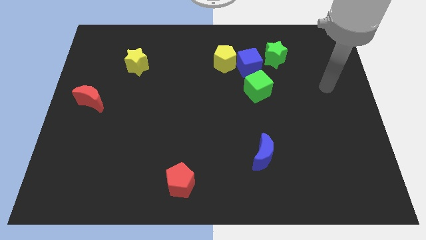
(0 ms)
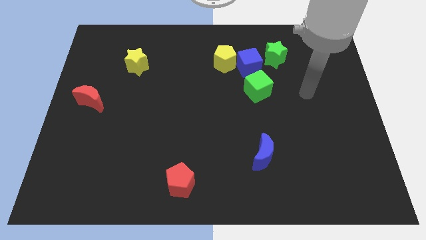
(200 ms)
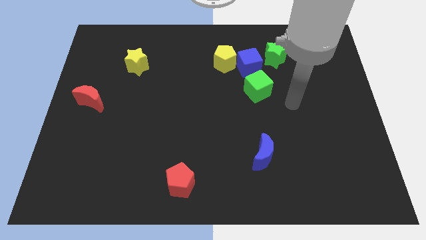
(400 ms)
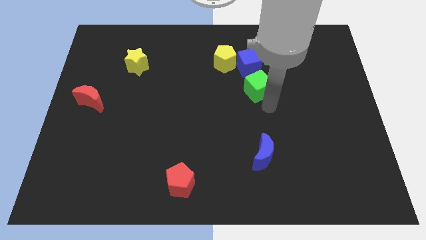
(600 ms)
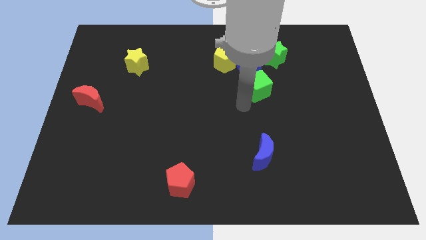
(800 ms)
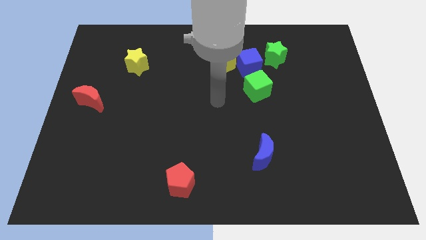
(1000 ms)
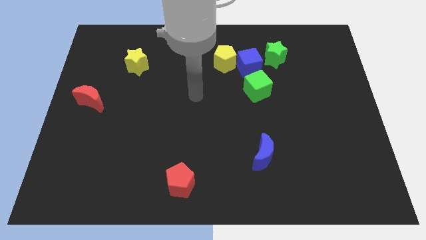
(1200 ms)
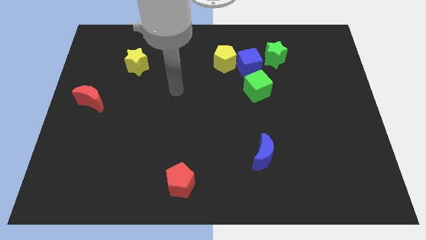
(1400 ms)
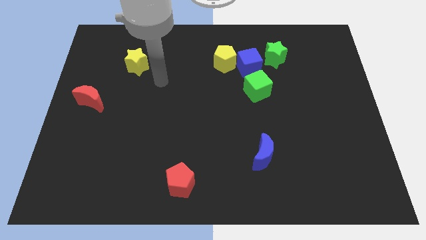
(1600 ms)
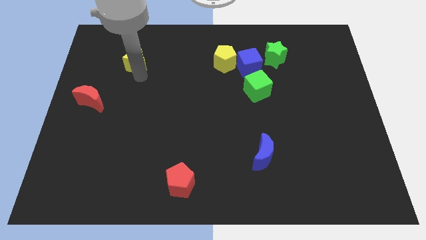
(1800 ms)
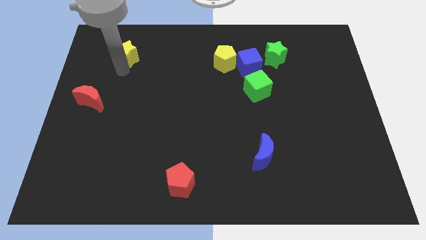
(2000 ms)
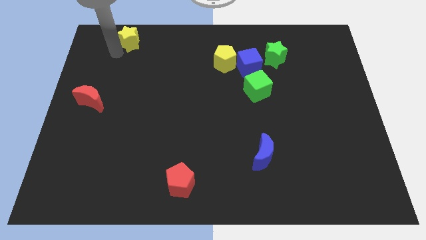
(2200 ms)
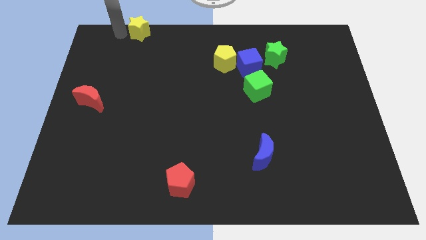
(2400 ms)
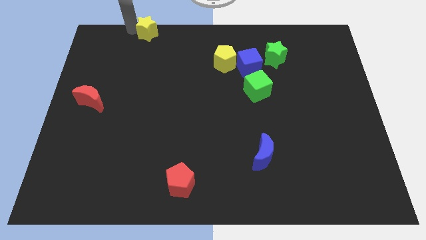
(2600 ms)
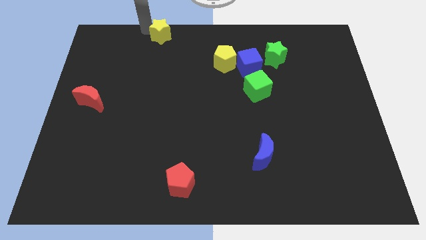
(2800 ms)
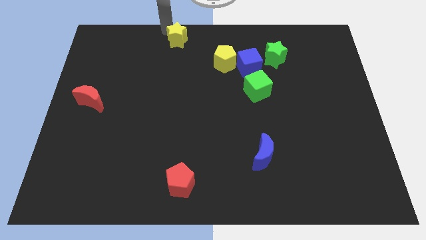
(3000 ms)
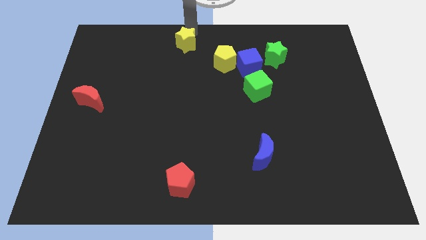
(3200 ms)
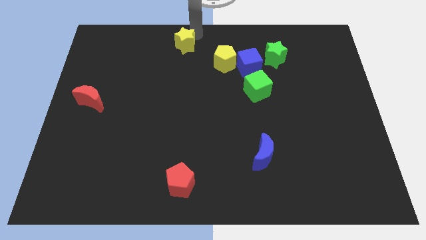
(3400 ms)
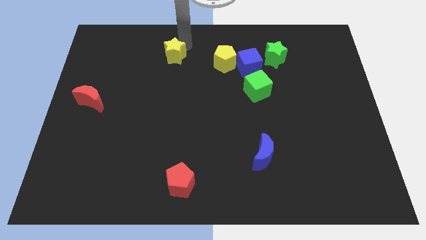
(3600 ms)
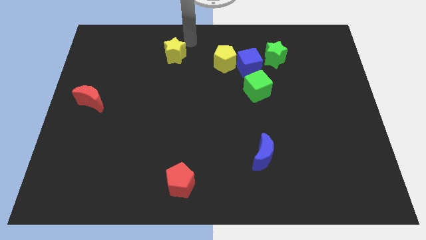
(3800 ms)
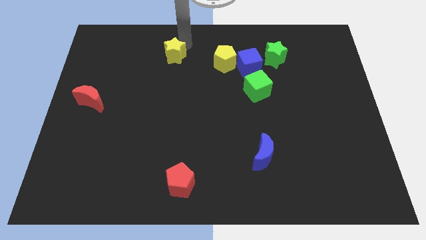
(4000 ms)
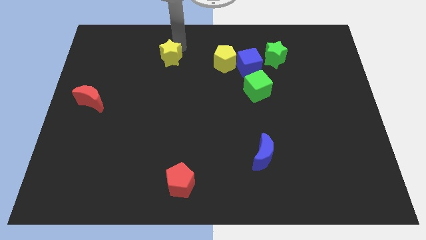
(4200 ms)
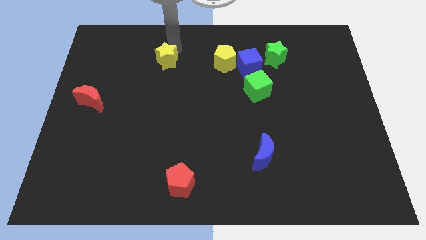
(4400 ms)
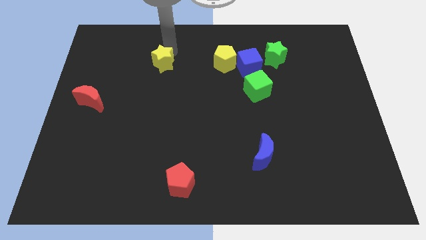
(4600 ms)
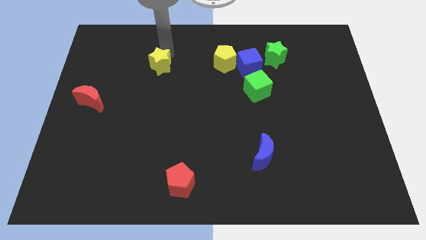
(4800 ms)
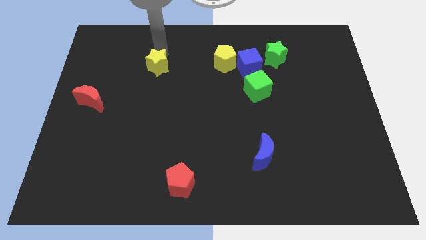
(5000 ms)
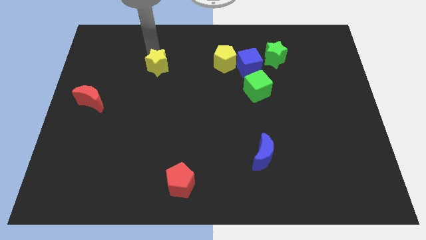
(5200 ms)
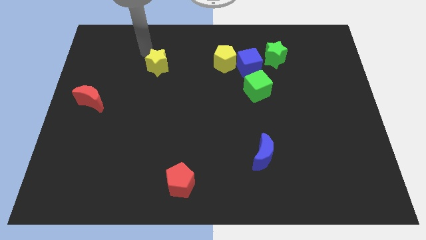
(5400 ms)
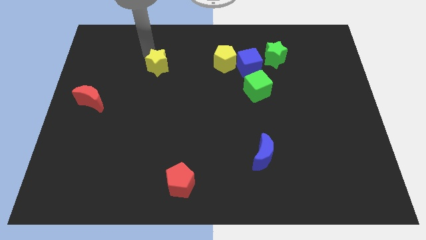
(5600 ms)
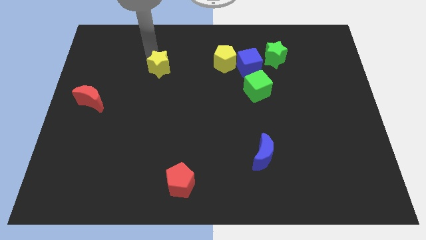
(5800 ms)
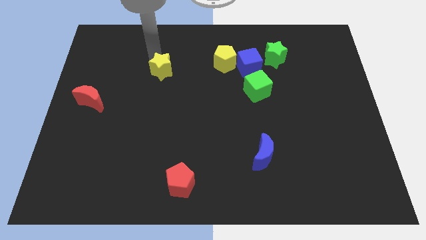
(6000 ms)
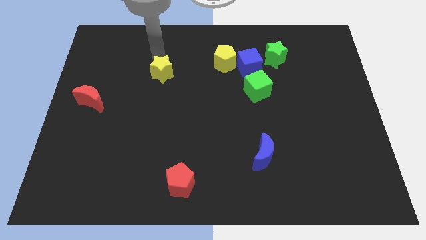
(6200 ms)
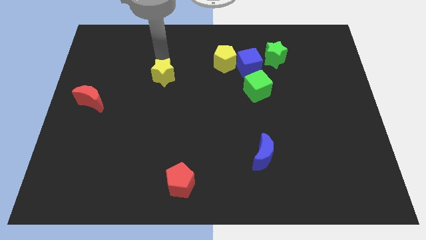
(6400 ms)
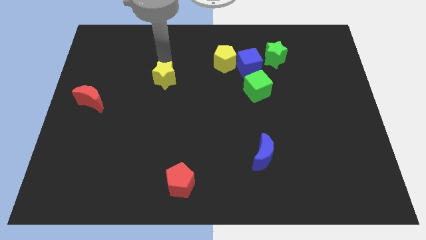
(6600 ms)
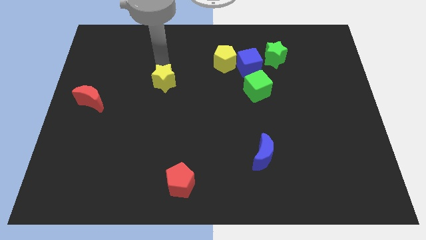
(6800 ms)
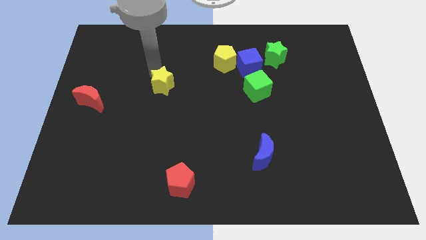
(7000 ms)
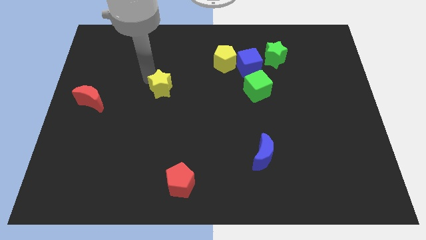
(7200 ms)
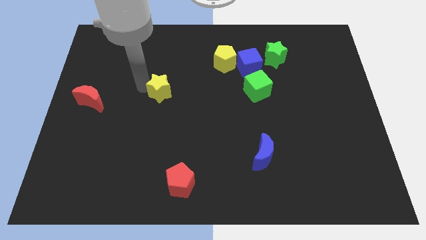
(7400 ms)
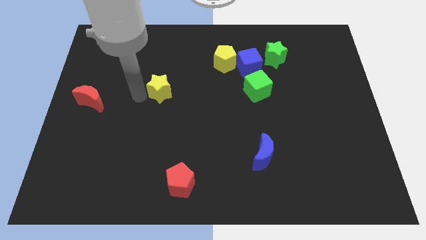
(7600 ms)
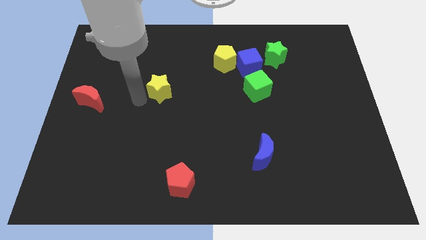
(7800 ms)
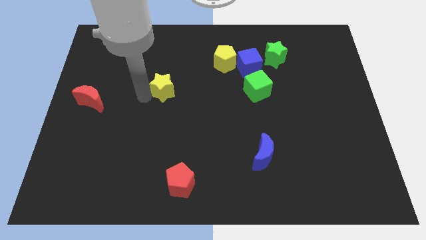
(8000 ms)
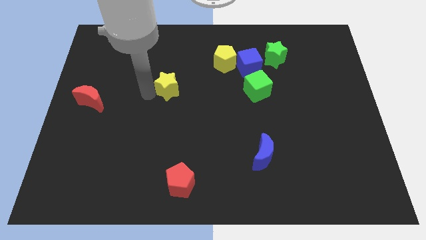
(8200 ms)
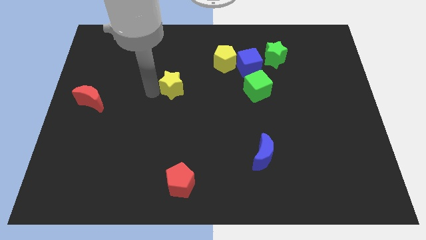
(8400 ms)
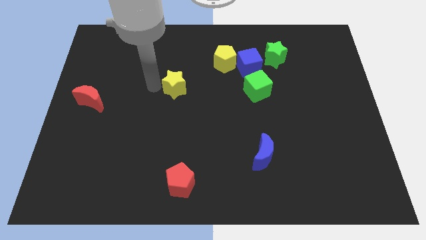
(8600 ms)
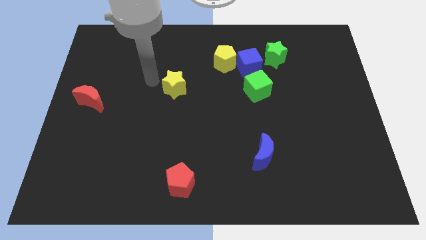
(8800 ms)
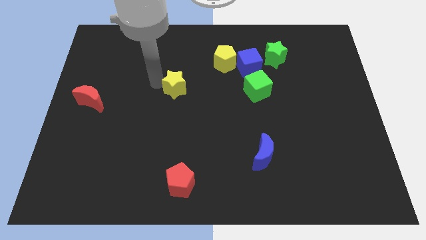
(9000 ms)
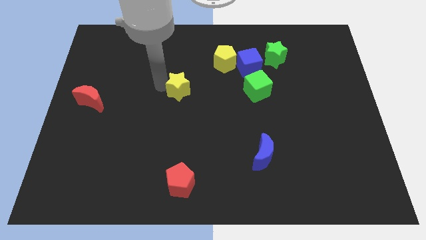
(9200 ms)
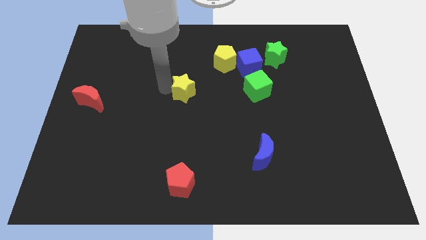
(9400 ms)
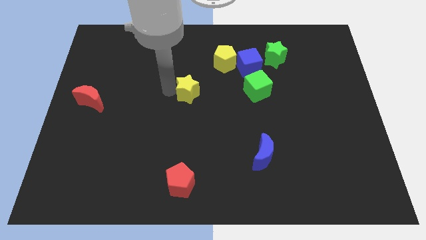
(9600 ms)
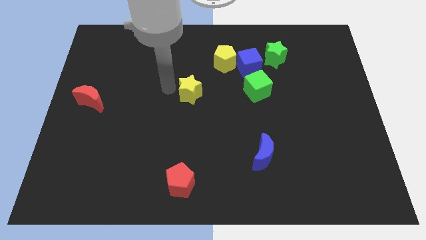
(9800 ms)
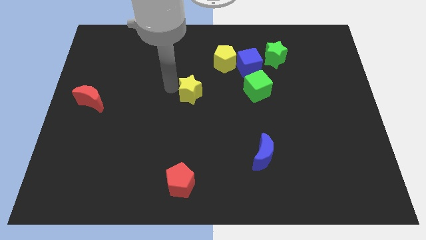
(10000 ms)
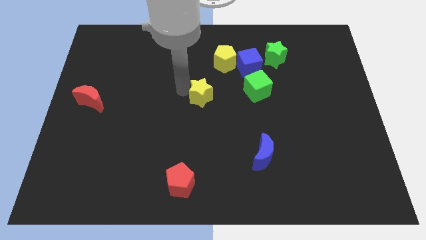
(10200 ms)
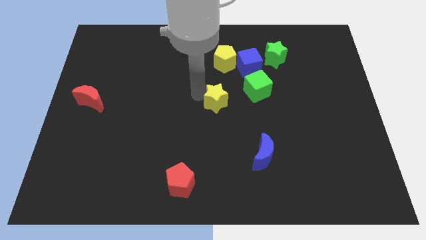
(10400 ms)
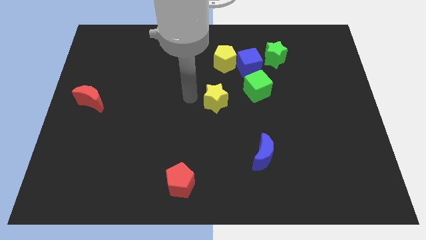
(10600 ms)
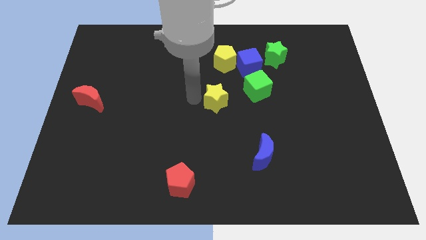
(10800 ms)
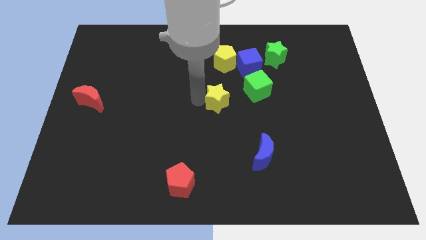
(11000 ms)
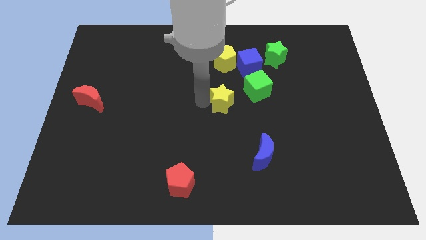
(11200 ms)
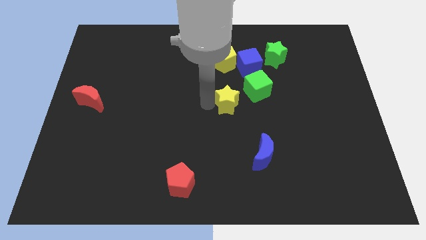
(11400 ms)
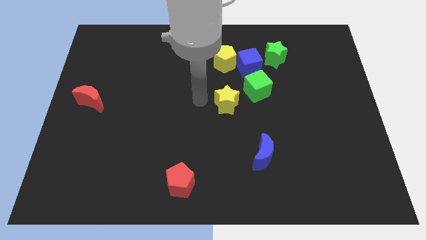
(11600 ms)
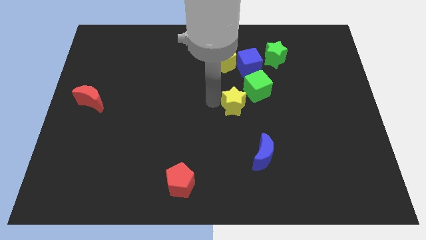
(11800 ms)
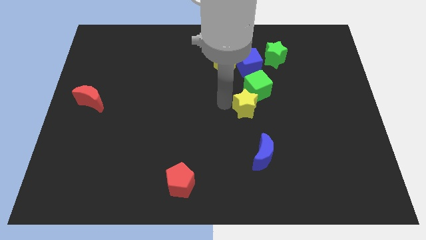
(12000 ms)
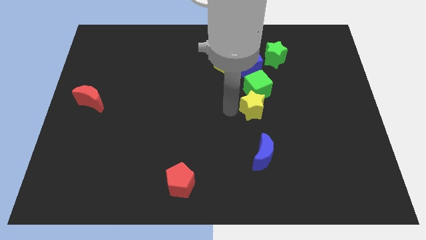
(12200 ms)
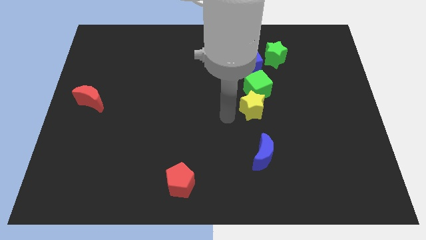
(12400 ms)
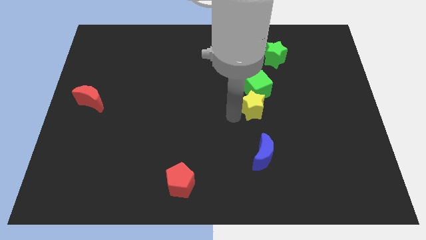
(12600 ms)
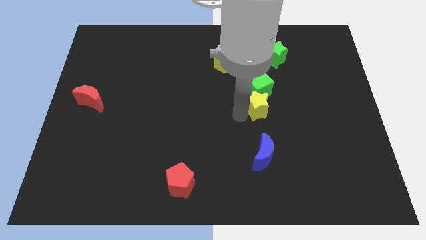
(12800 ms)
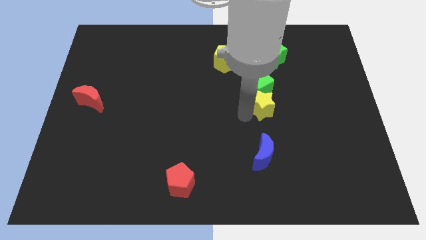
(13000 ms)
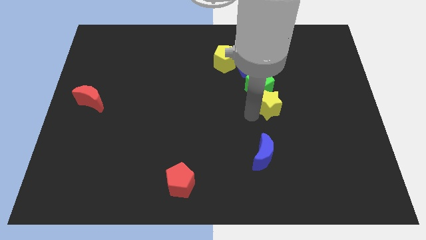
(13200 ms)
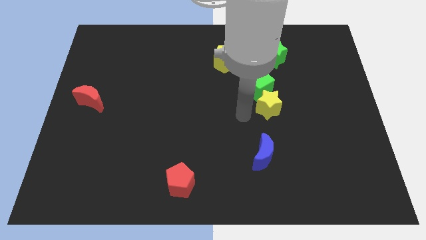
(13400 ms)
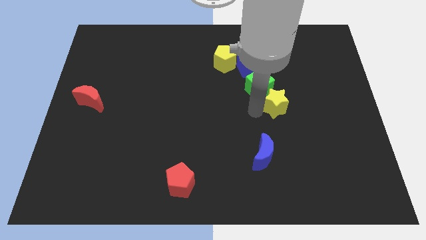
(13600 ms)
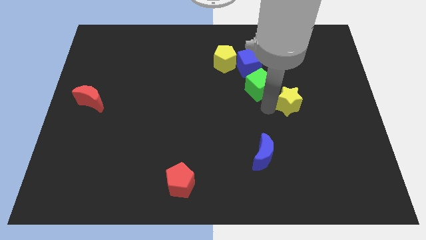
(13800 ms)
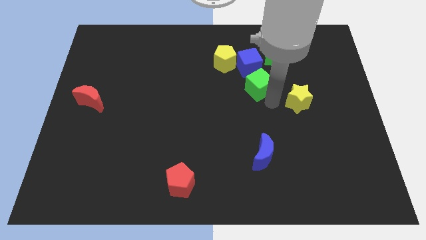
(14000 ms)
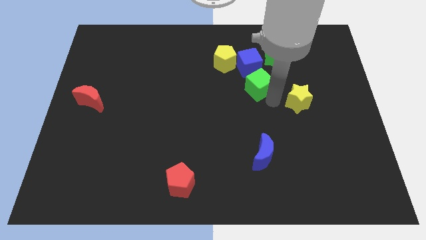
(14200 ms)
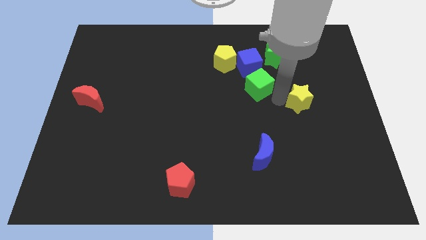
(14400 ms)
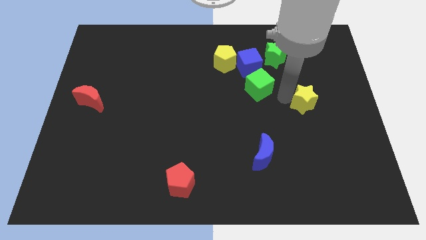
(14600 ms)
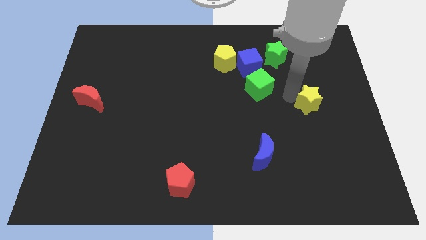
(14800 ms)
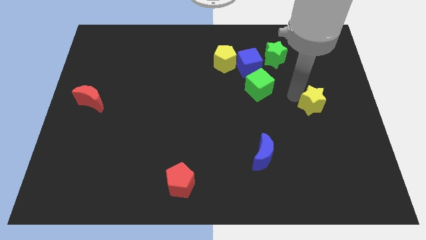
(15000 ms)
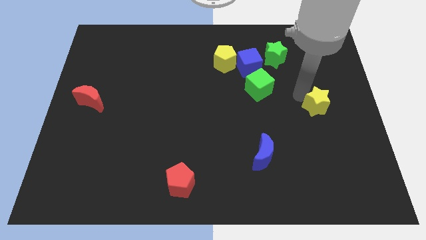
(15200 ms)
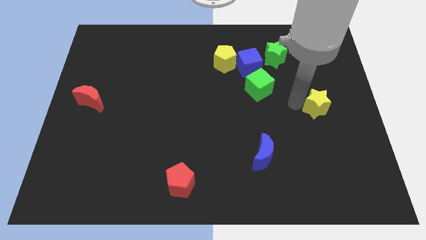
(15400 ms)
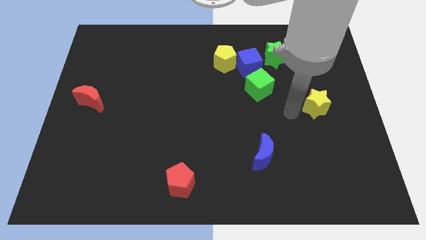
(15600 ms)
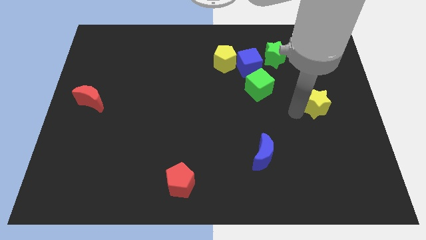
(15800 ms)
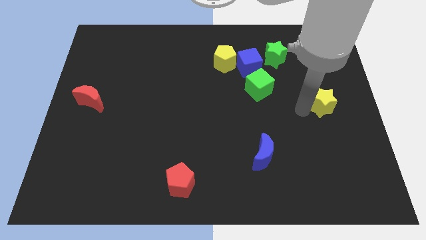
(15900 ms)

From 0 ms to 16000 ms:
slide the yellow star to the center right
